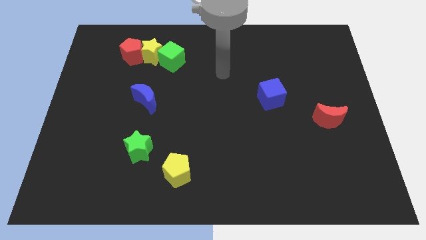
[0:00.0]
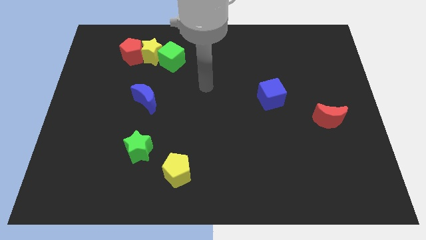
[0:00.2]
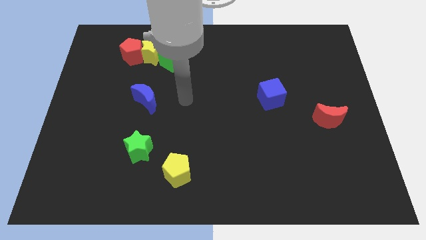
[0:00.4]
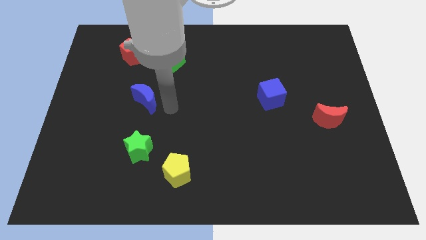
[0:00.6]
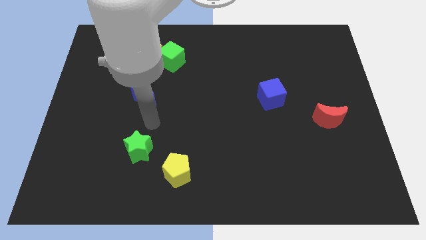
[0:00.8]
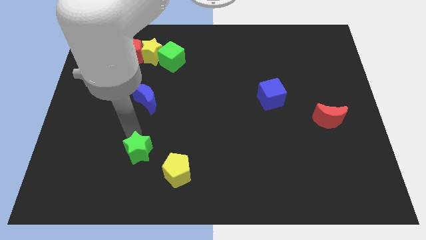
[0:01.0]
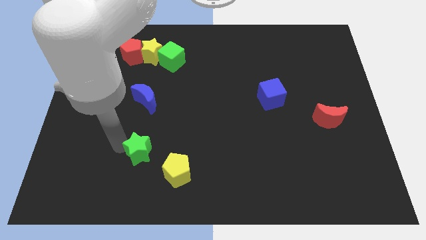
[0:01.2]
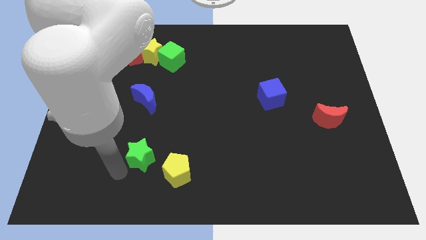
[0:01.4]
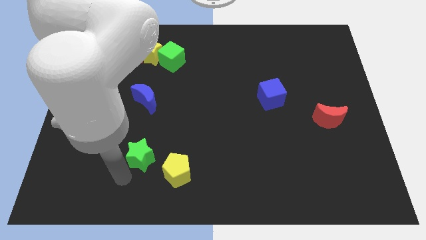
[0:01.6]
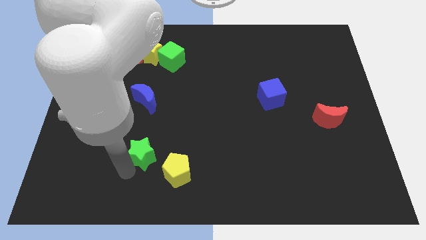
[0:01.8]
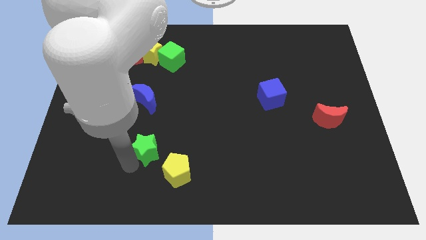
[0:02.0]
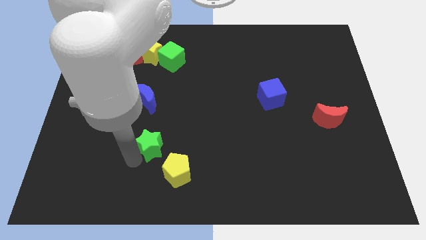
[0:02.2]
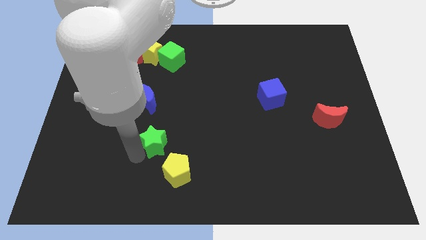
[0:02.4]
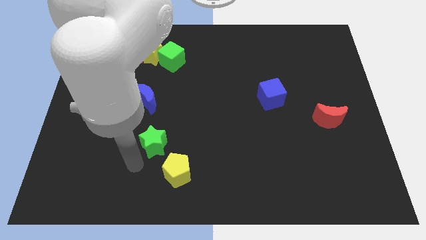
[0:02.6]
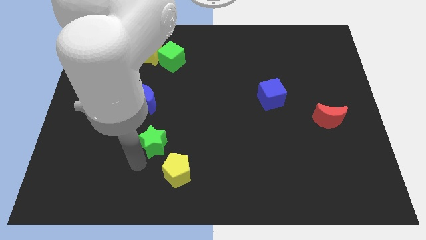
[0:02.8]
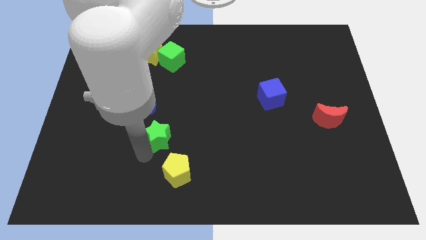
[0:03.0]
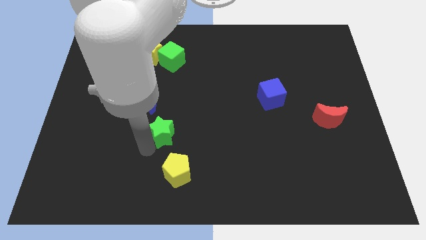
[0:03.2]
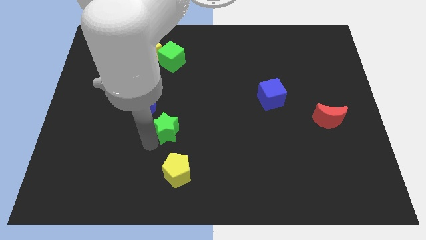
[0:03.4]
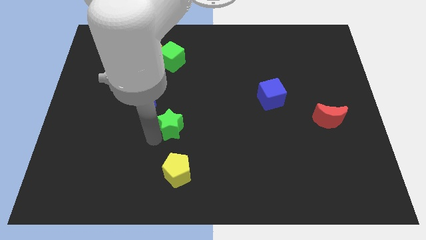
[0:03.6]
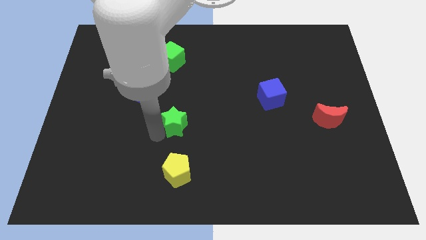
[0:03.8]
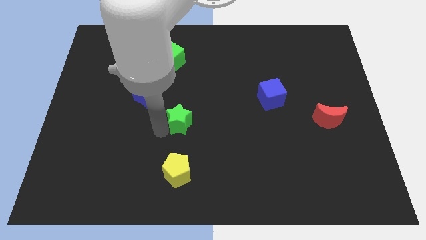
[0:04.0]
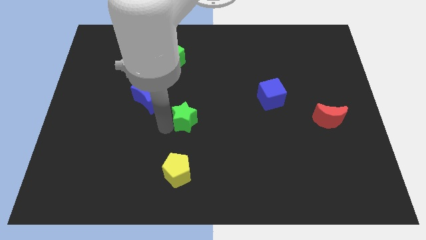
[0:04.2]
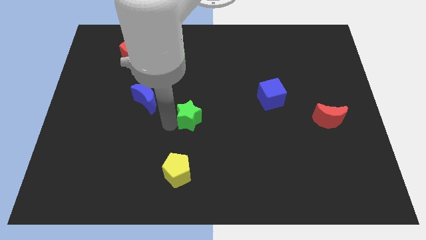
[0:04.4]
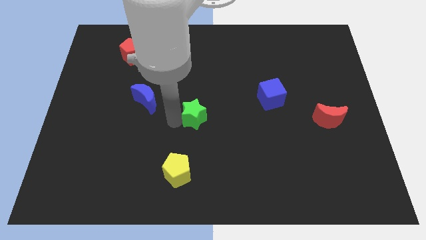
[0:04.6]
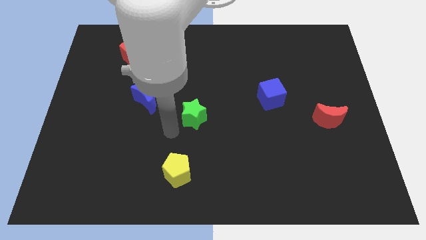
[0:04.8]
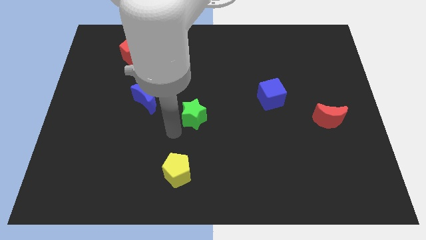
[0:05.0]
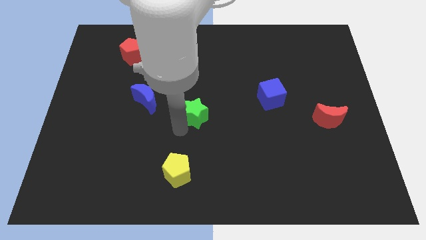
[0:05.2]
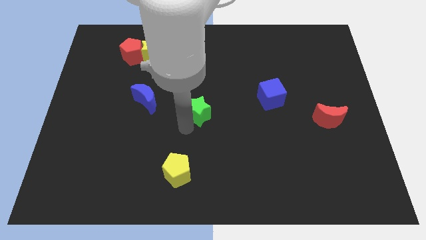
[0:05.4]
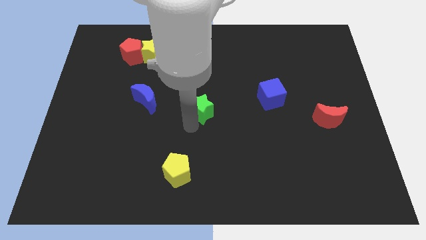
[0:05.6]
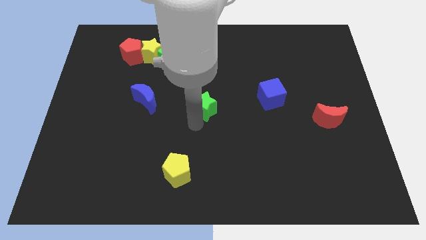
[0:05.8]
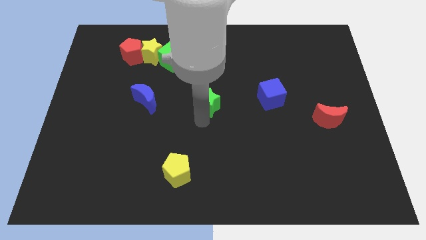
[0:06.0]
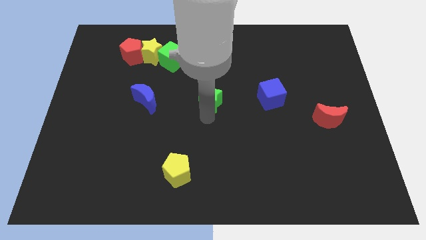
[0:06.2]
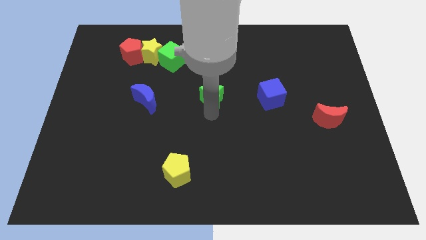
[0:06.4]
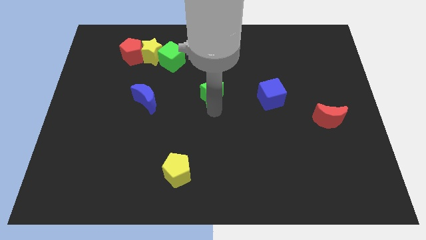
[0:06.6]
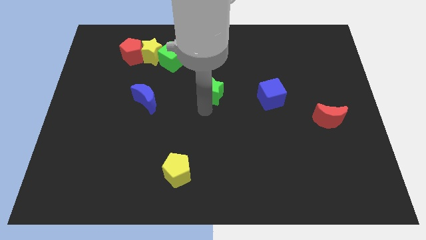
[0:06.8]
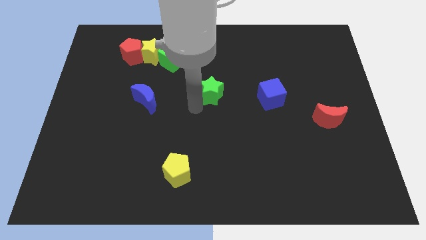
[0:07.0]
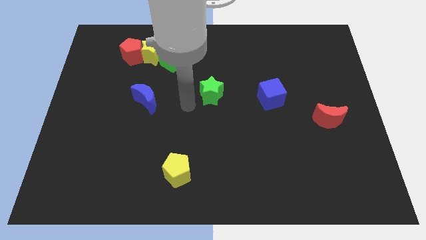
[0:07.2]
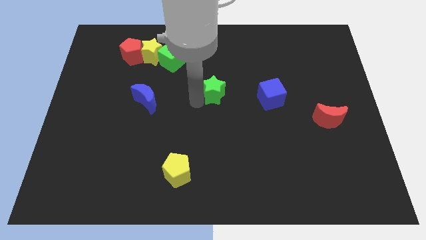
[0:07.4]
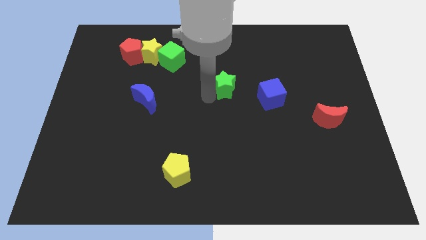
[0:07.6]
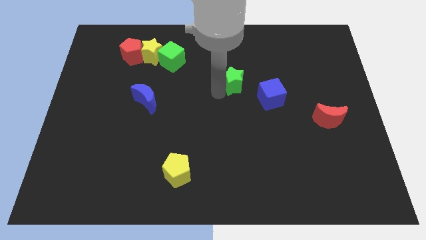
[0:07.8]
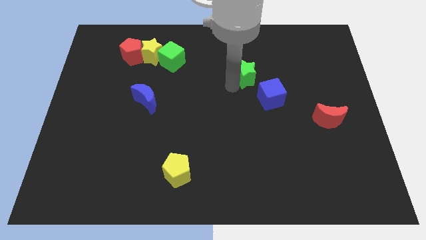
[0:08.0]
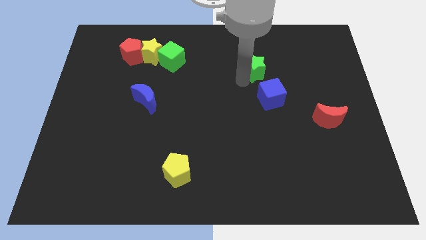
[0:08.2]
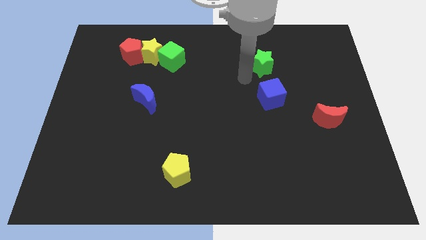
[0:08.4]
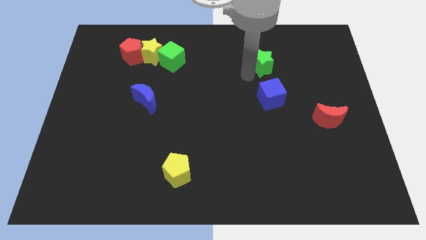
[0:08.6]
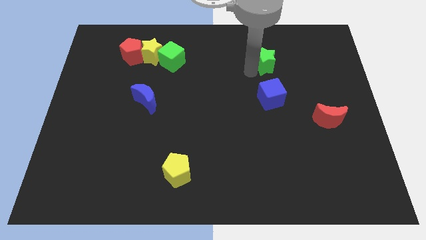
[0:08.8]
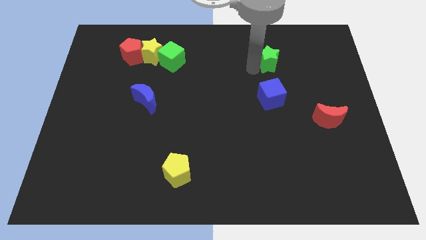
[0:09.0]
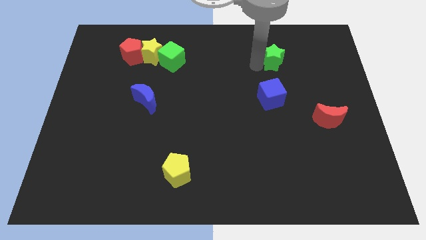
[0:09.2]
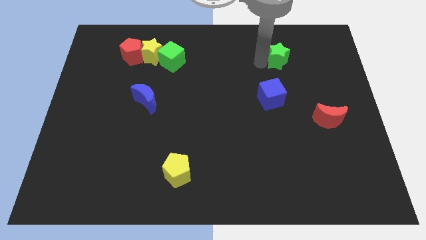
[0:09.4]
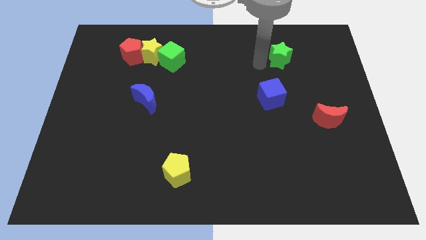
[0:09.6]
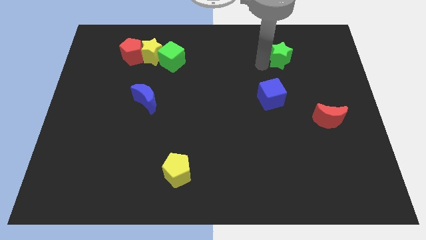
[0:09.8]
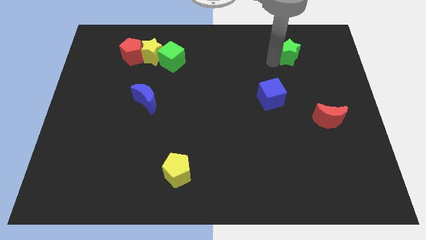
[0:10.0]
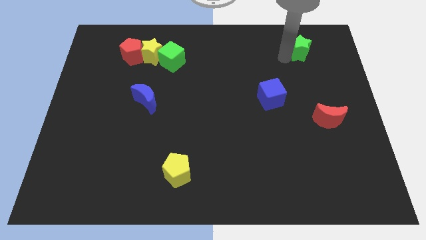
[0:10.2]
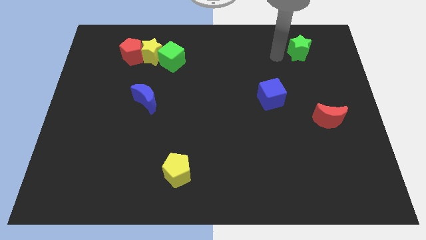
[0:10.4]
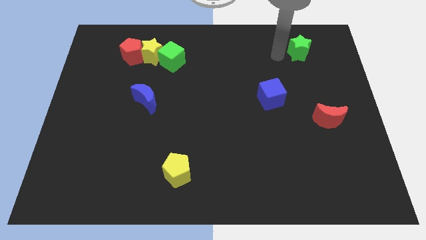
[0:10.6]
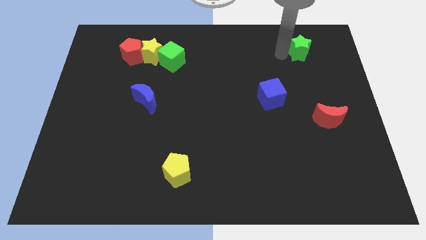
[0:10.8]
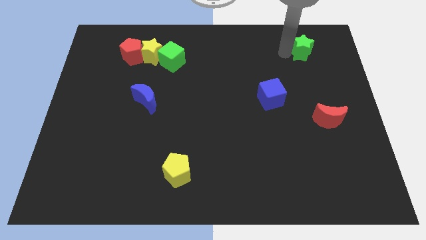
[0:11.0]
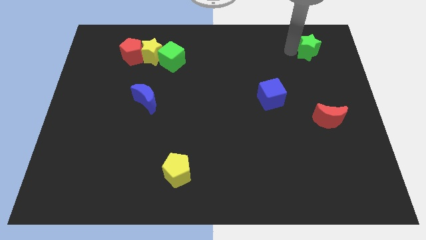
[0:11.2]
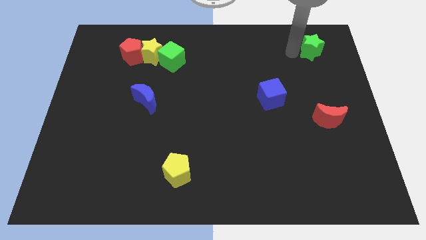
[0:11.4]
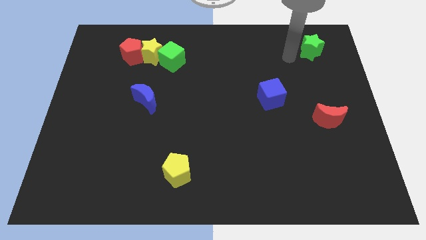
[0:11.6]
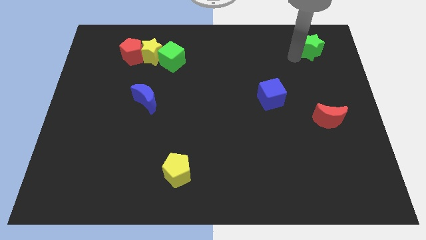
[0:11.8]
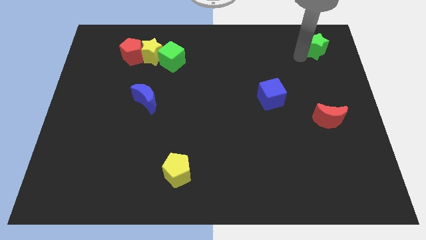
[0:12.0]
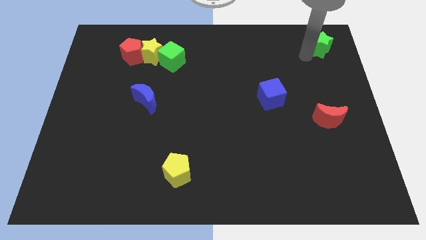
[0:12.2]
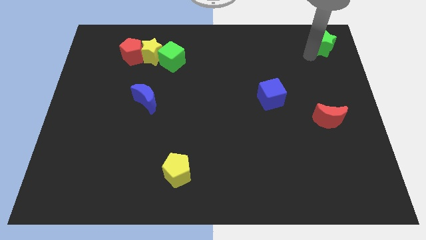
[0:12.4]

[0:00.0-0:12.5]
put the green star to the upper right corner

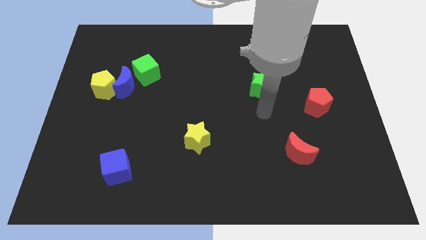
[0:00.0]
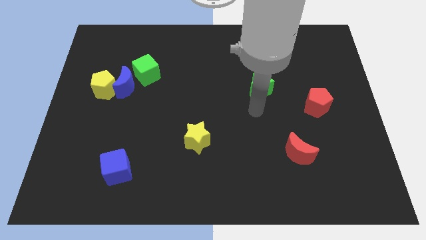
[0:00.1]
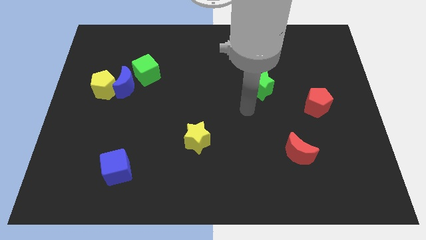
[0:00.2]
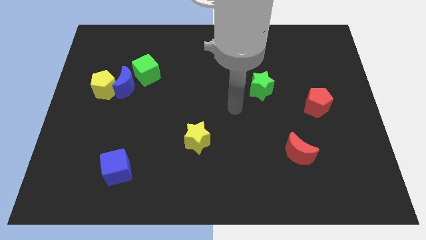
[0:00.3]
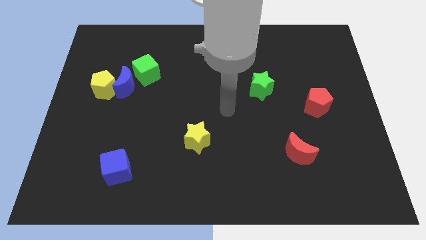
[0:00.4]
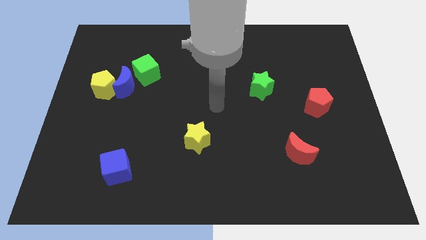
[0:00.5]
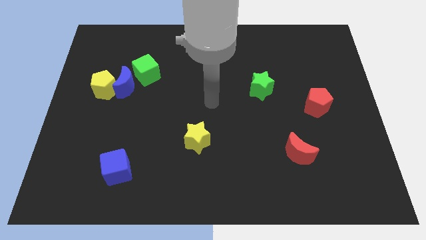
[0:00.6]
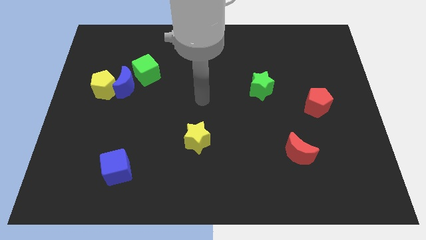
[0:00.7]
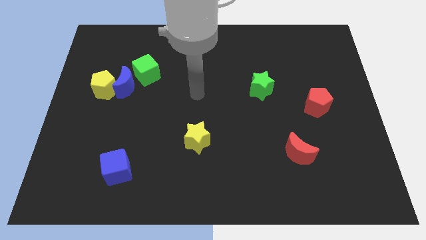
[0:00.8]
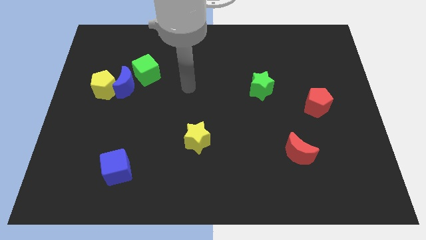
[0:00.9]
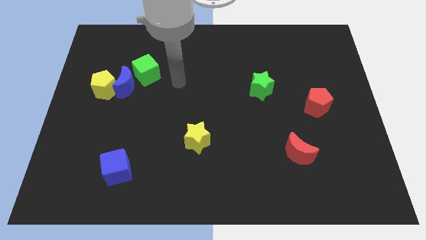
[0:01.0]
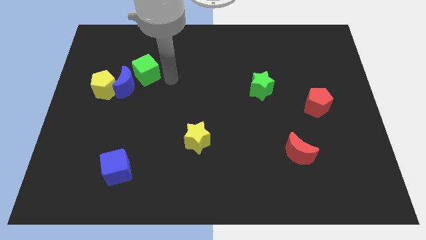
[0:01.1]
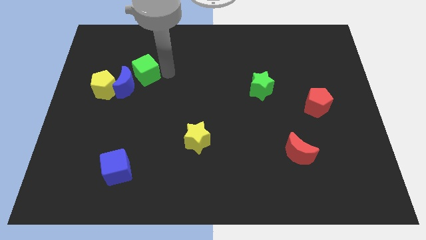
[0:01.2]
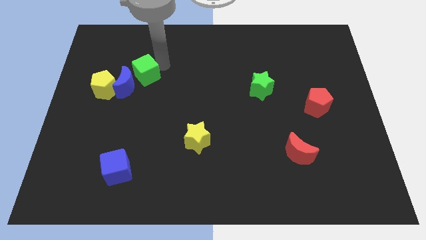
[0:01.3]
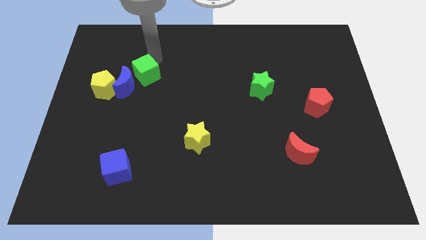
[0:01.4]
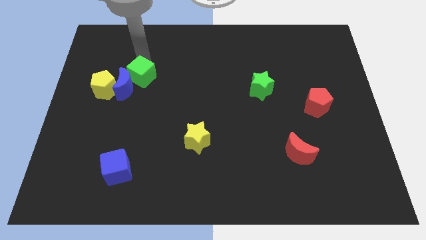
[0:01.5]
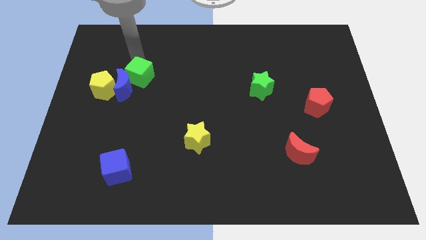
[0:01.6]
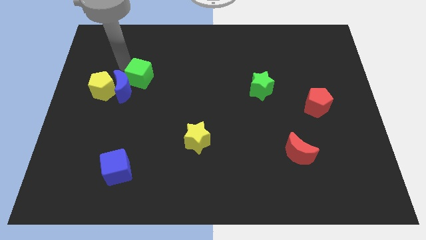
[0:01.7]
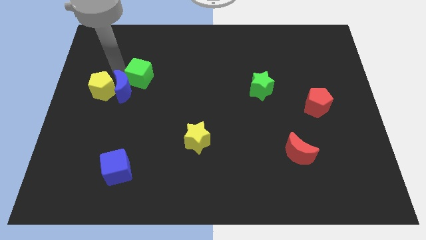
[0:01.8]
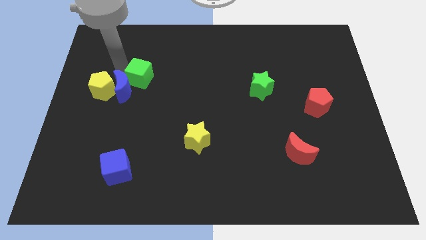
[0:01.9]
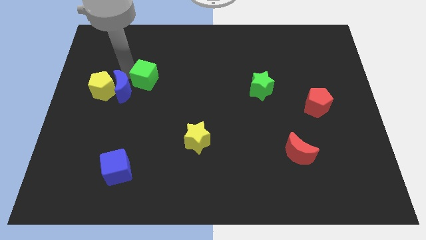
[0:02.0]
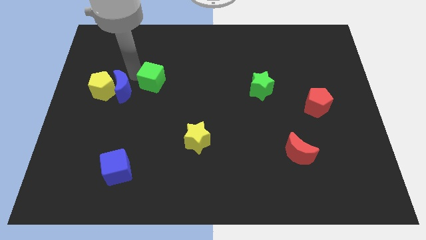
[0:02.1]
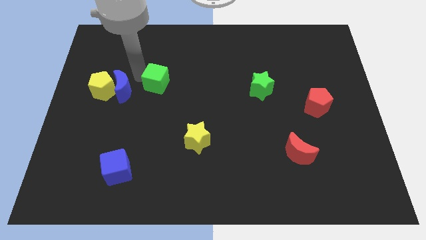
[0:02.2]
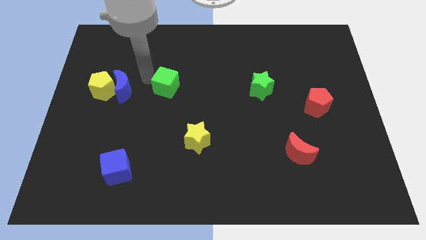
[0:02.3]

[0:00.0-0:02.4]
slide the green cube to the middle
